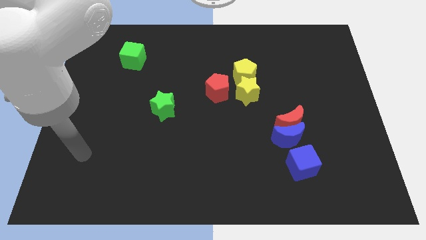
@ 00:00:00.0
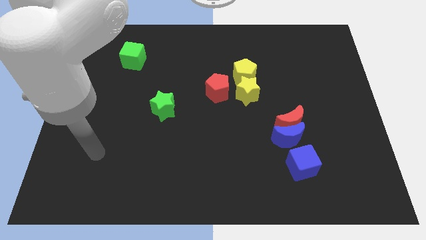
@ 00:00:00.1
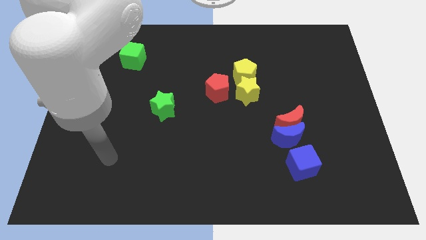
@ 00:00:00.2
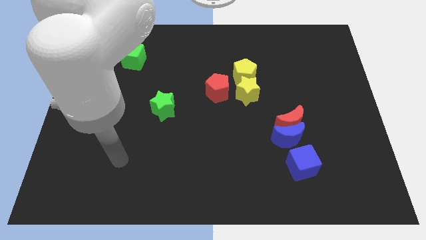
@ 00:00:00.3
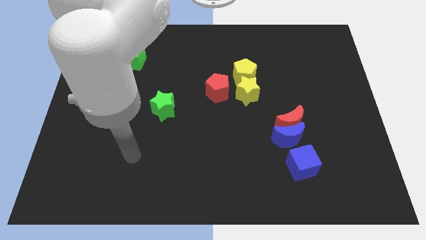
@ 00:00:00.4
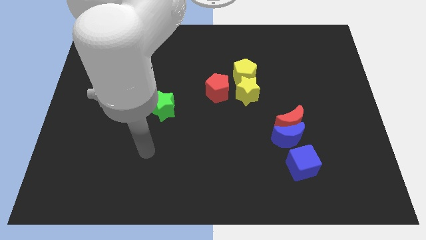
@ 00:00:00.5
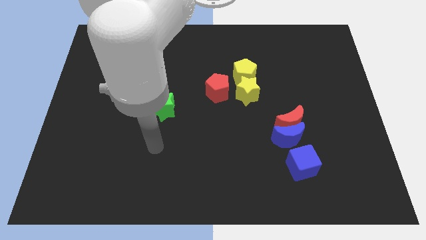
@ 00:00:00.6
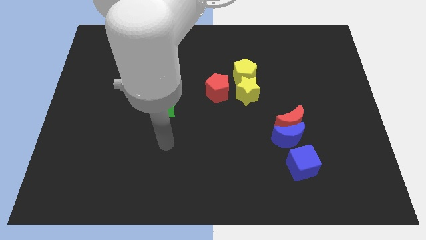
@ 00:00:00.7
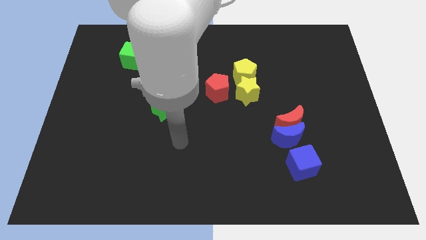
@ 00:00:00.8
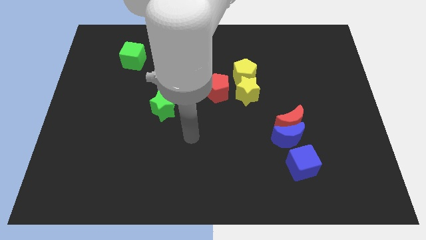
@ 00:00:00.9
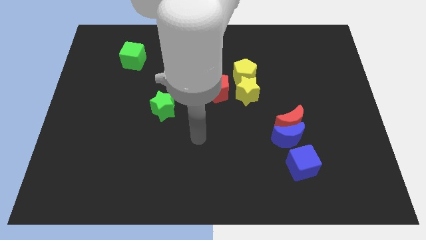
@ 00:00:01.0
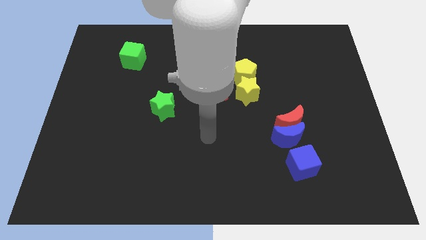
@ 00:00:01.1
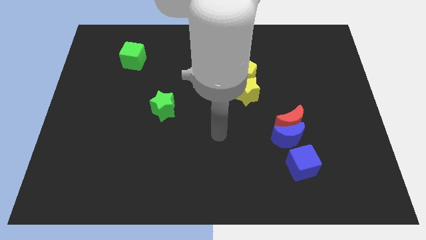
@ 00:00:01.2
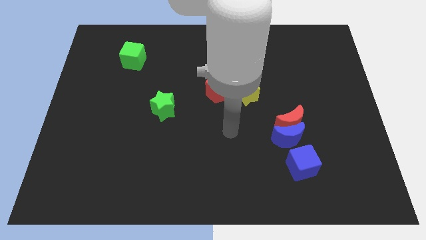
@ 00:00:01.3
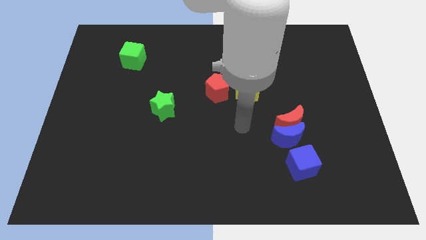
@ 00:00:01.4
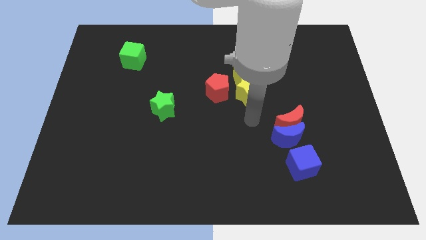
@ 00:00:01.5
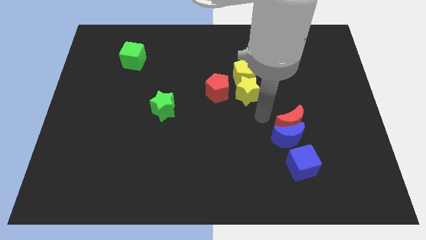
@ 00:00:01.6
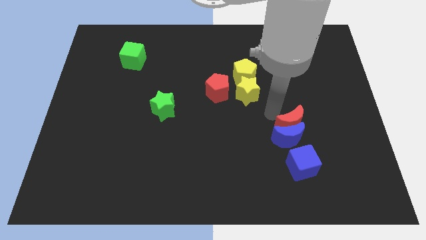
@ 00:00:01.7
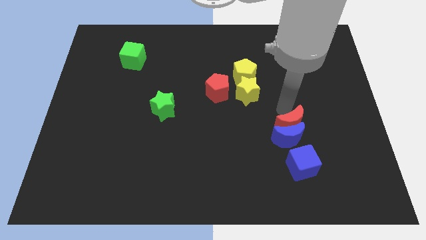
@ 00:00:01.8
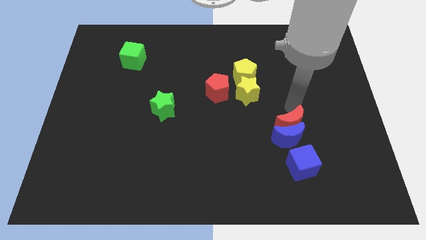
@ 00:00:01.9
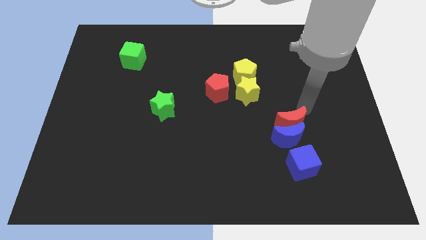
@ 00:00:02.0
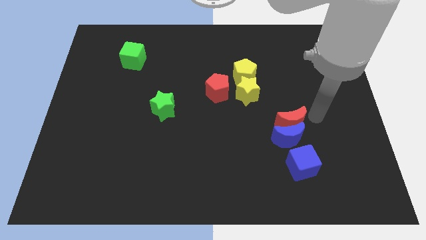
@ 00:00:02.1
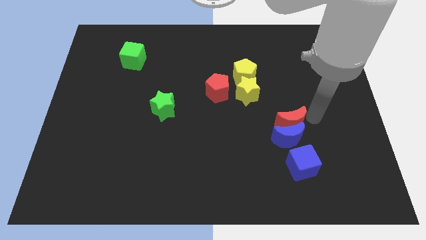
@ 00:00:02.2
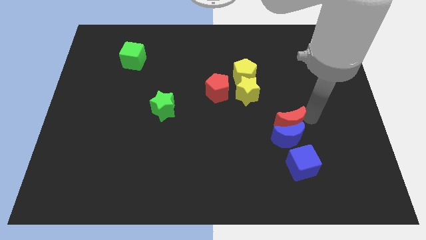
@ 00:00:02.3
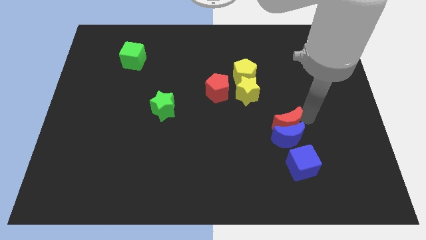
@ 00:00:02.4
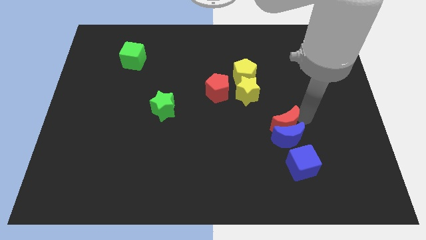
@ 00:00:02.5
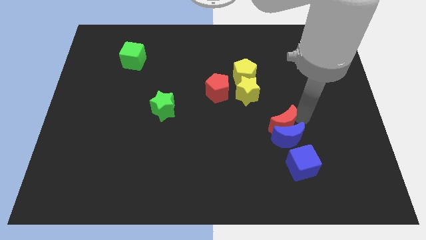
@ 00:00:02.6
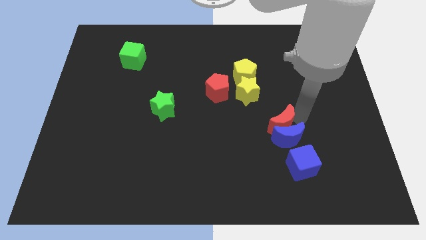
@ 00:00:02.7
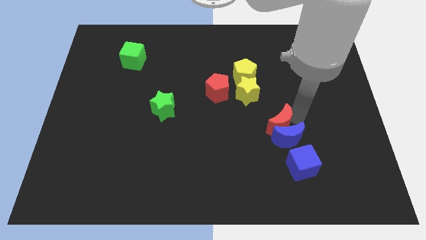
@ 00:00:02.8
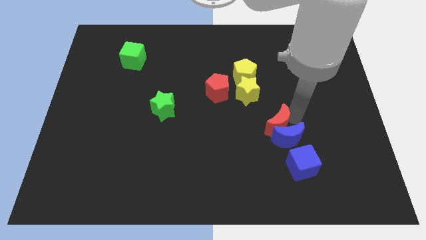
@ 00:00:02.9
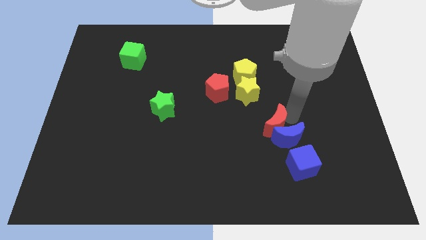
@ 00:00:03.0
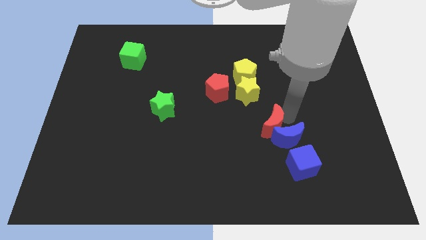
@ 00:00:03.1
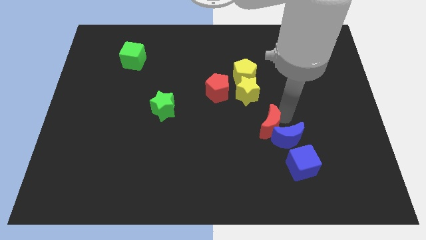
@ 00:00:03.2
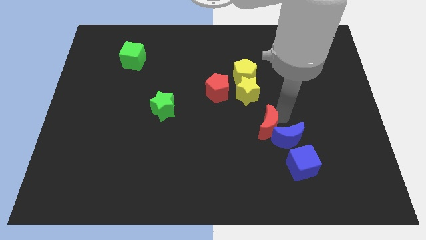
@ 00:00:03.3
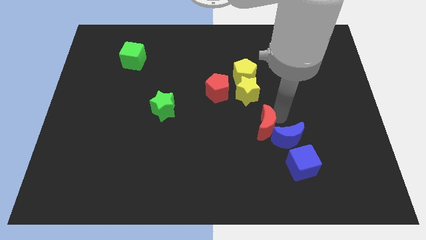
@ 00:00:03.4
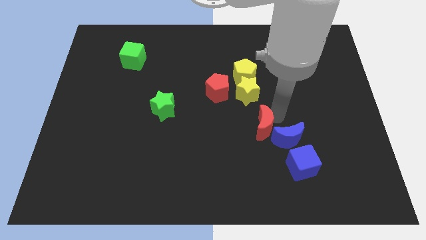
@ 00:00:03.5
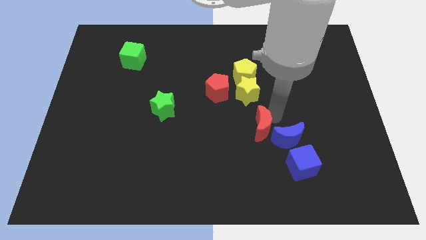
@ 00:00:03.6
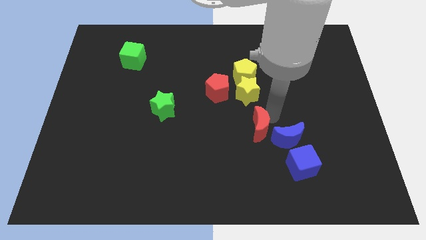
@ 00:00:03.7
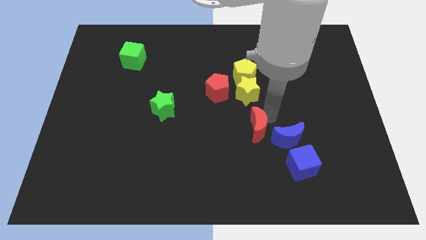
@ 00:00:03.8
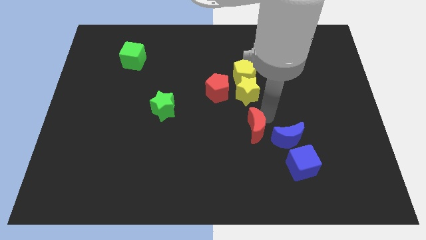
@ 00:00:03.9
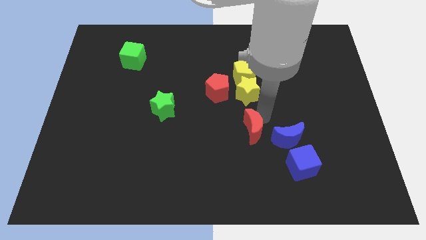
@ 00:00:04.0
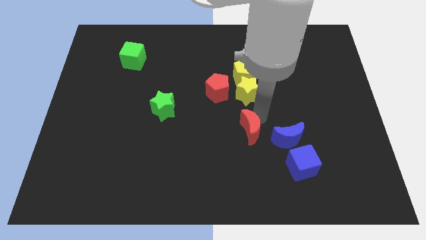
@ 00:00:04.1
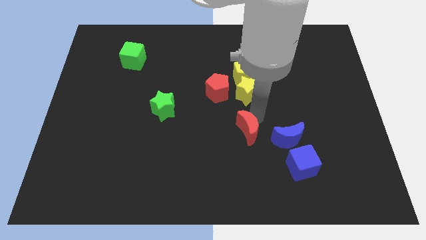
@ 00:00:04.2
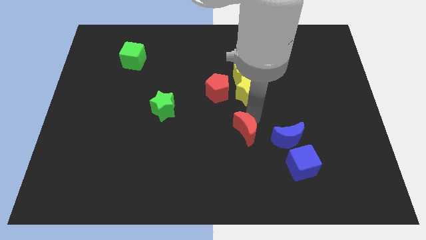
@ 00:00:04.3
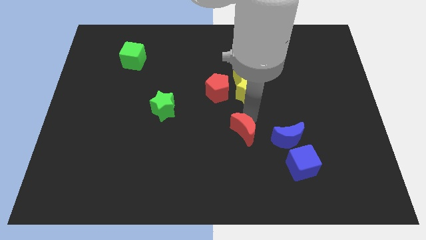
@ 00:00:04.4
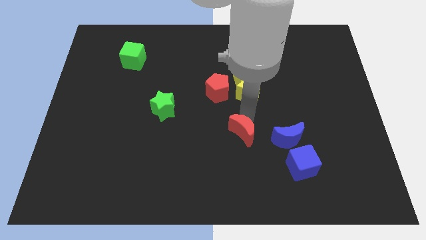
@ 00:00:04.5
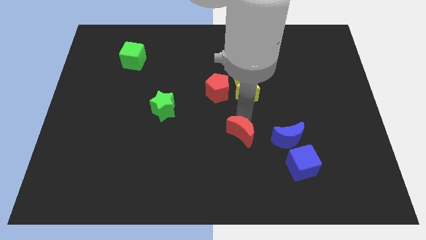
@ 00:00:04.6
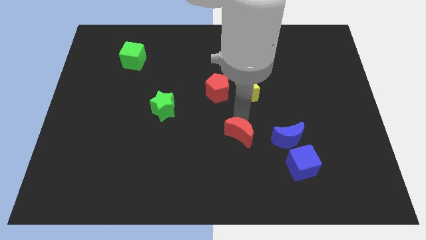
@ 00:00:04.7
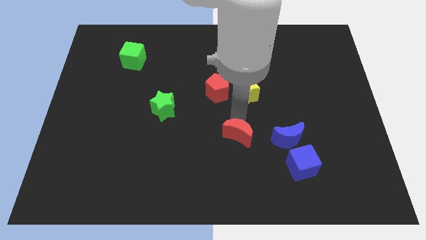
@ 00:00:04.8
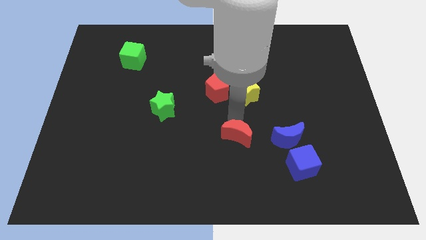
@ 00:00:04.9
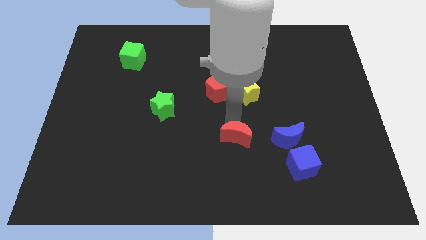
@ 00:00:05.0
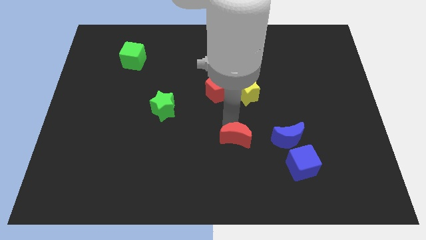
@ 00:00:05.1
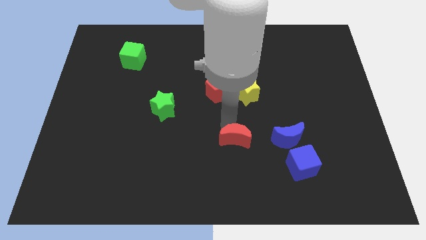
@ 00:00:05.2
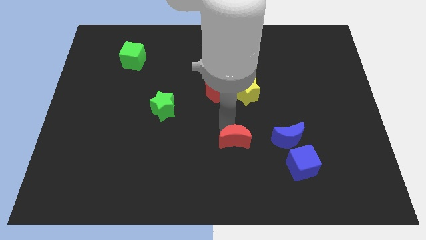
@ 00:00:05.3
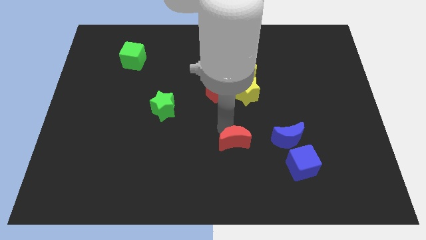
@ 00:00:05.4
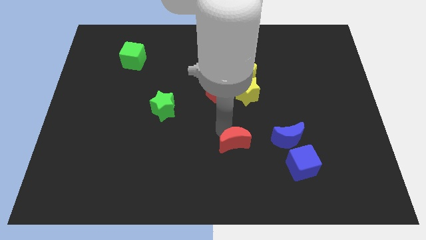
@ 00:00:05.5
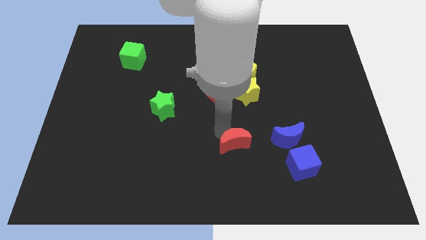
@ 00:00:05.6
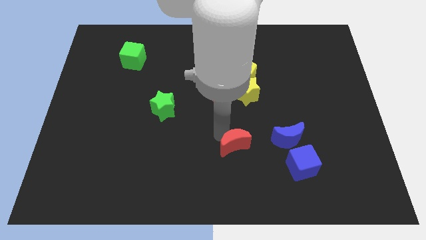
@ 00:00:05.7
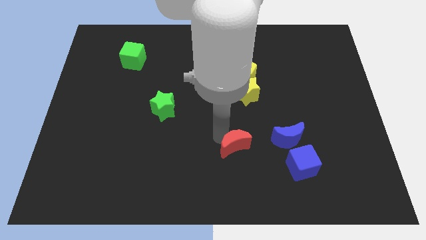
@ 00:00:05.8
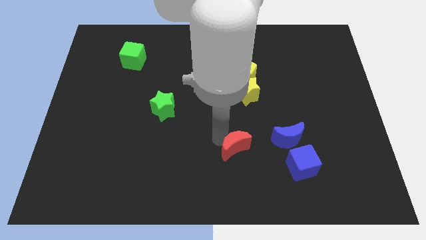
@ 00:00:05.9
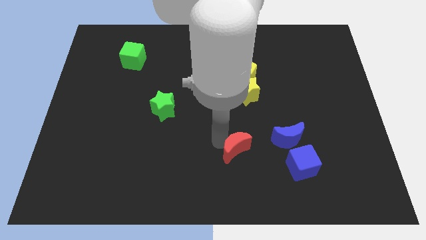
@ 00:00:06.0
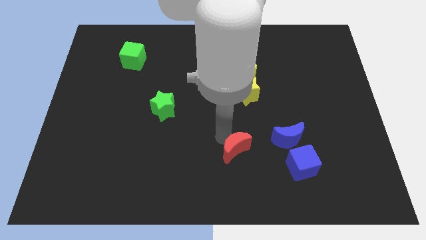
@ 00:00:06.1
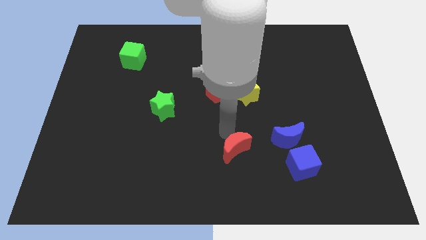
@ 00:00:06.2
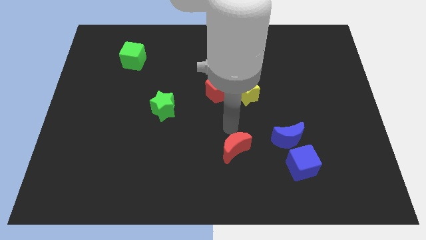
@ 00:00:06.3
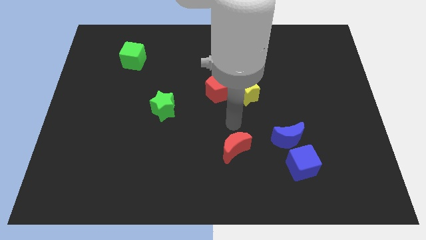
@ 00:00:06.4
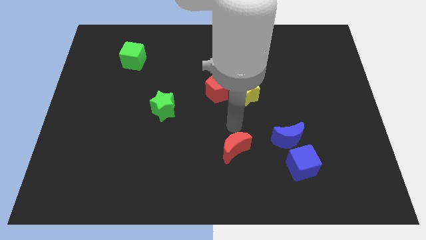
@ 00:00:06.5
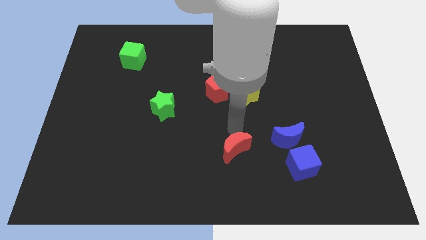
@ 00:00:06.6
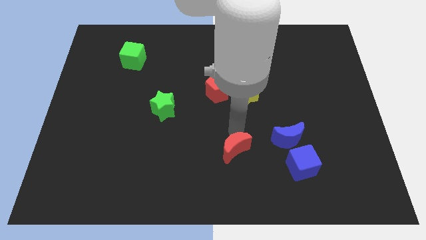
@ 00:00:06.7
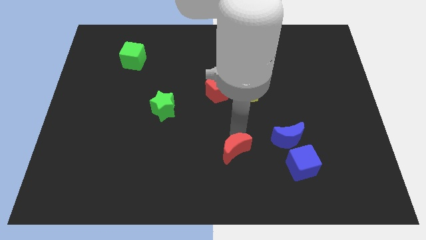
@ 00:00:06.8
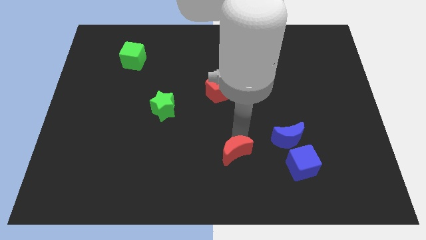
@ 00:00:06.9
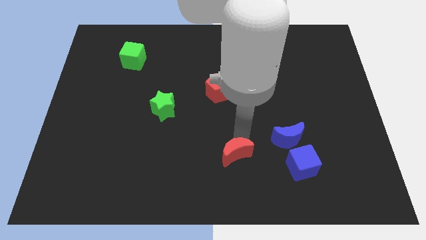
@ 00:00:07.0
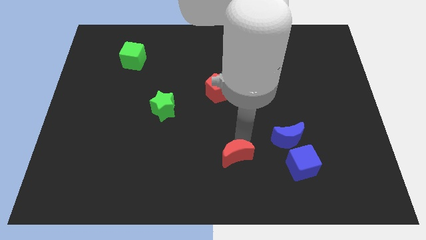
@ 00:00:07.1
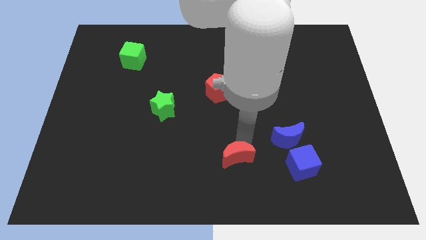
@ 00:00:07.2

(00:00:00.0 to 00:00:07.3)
move the red moon to the bottom side
